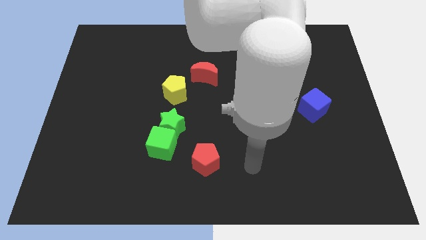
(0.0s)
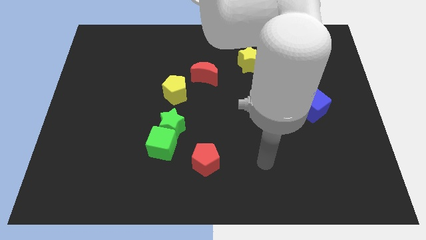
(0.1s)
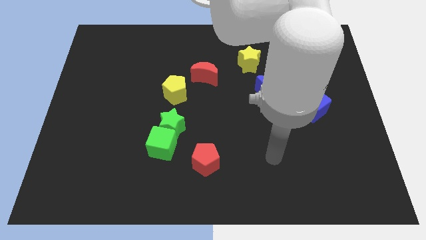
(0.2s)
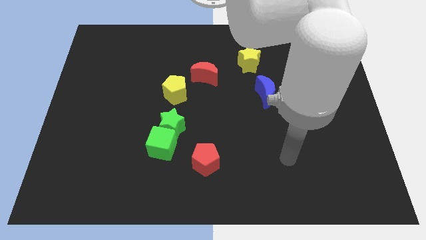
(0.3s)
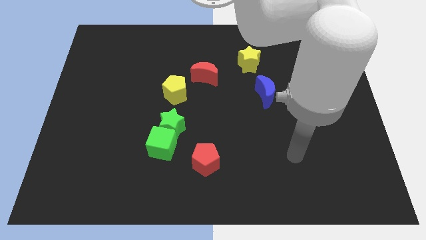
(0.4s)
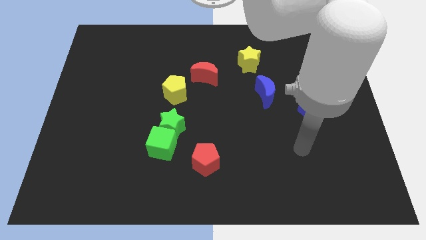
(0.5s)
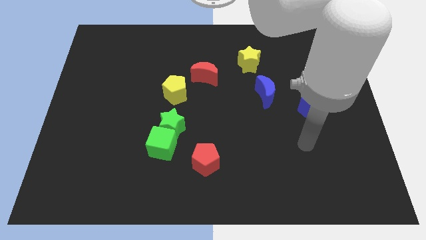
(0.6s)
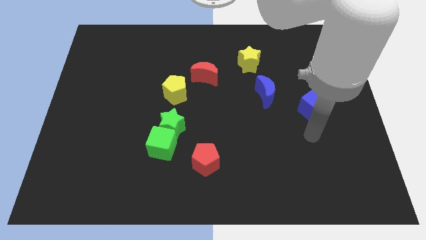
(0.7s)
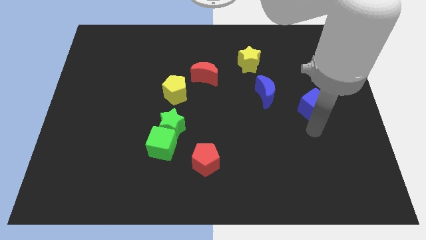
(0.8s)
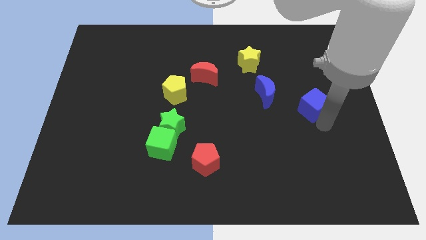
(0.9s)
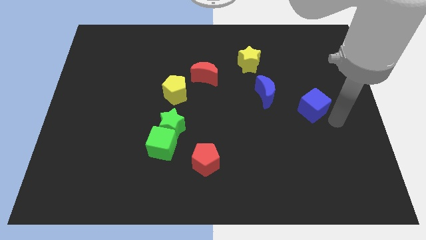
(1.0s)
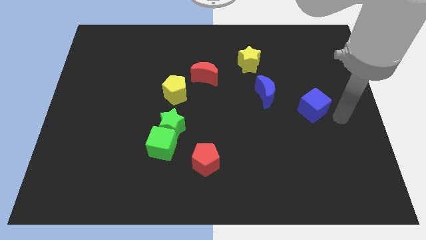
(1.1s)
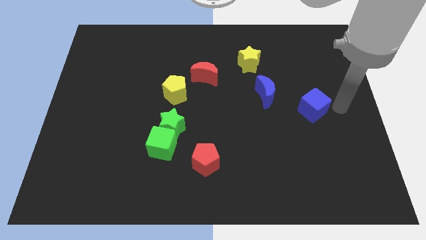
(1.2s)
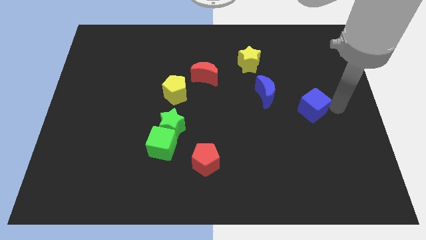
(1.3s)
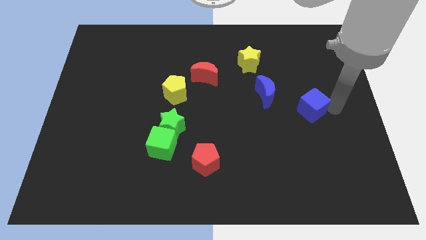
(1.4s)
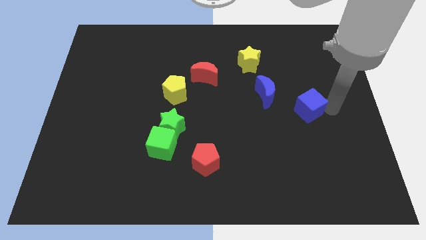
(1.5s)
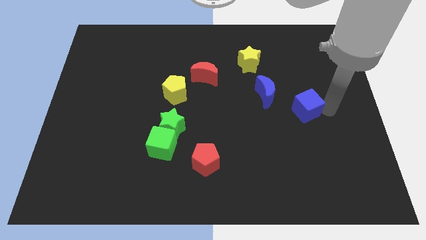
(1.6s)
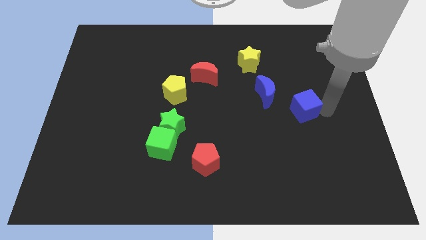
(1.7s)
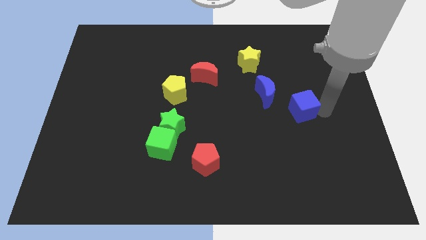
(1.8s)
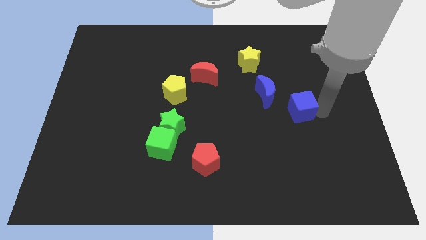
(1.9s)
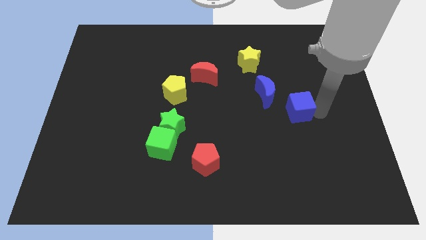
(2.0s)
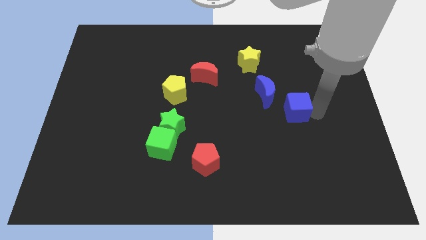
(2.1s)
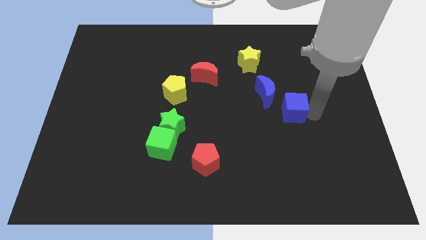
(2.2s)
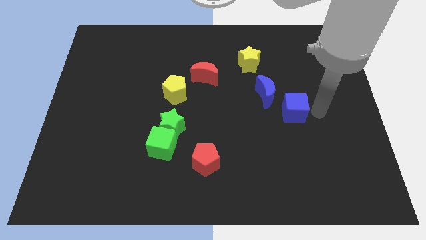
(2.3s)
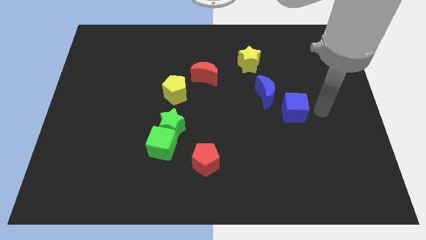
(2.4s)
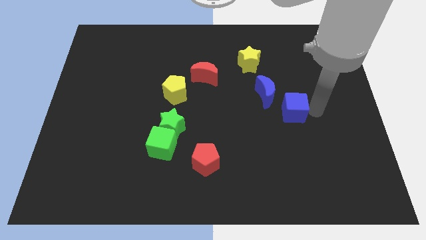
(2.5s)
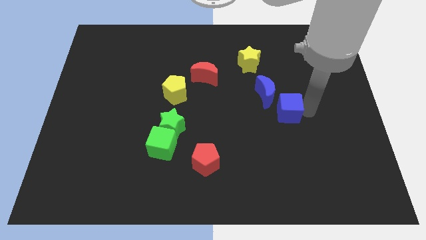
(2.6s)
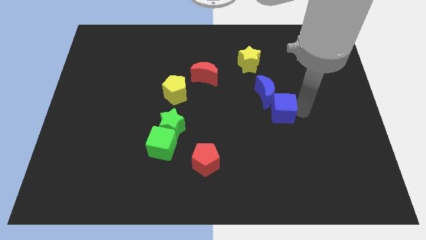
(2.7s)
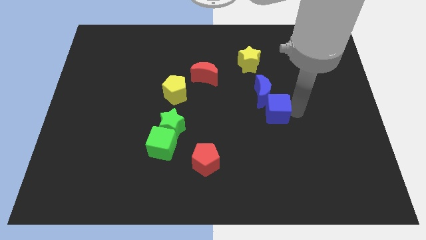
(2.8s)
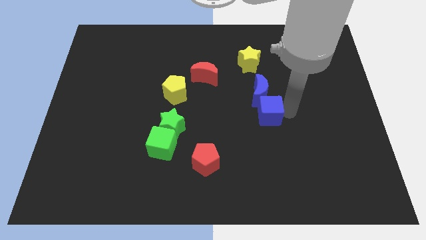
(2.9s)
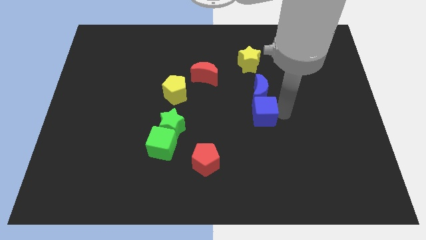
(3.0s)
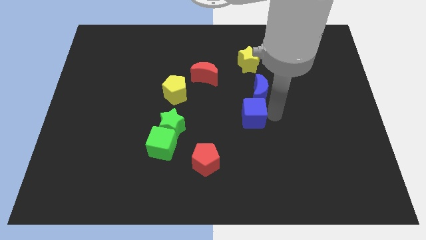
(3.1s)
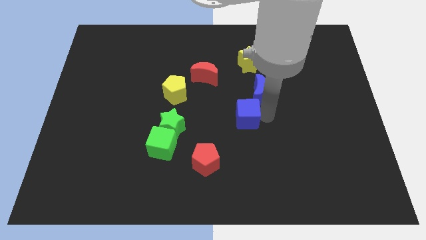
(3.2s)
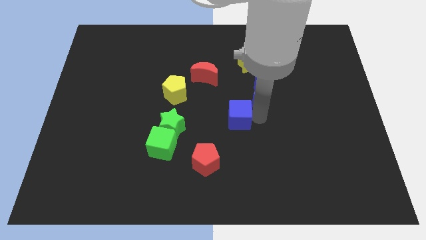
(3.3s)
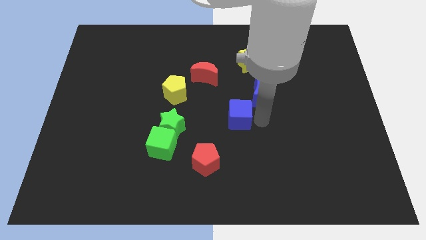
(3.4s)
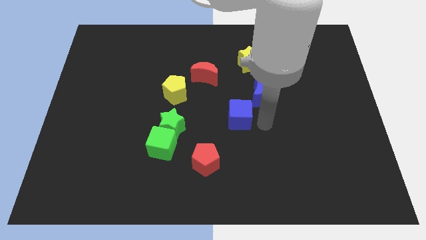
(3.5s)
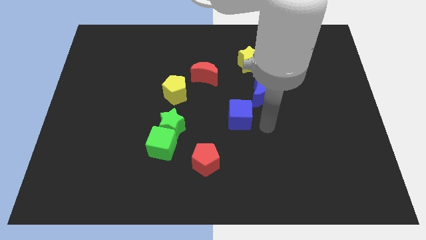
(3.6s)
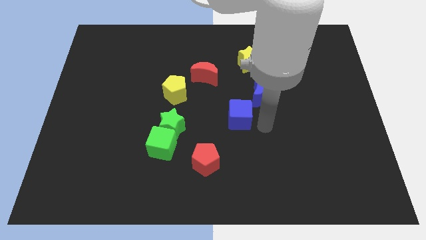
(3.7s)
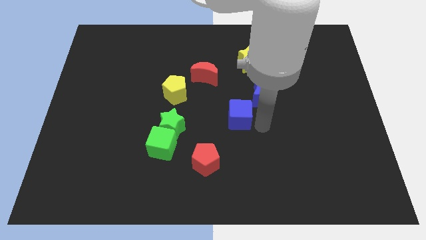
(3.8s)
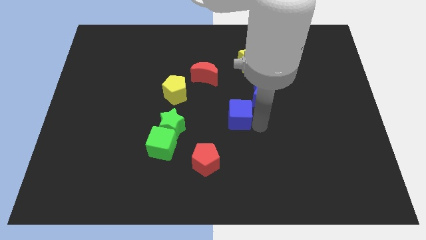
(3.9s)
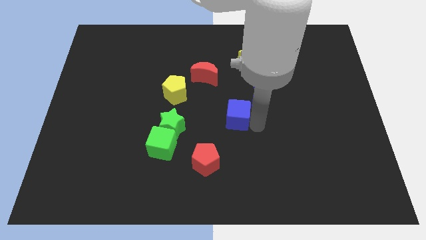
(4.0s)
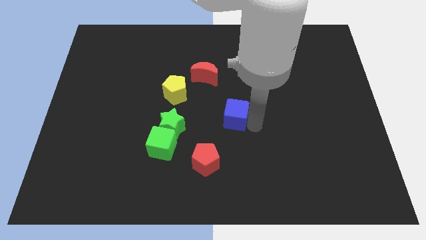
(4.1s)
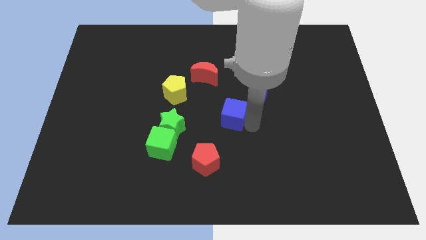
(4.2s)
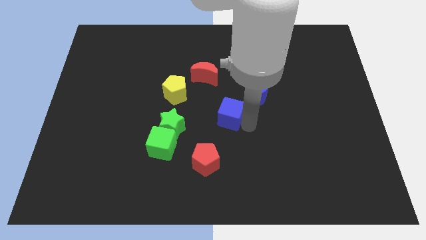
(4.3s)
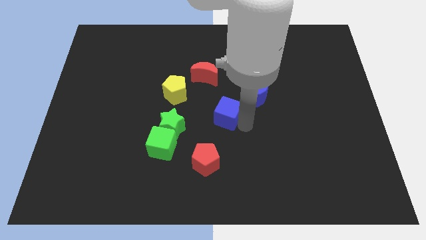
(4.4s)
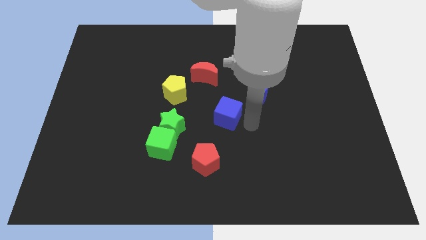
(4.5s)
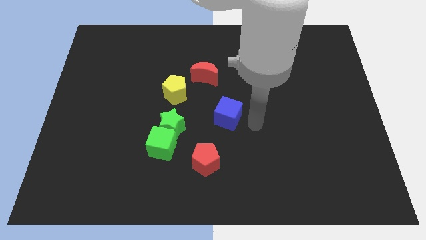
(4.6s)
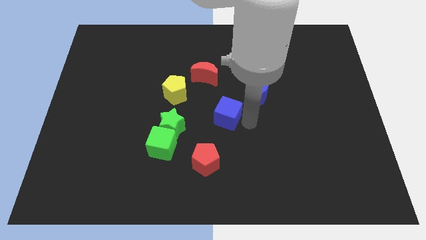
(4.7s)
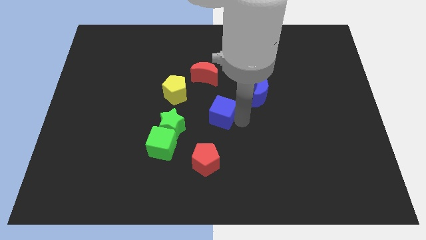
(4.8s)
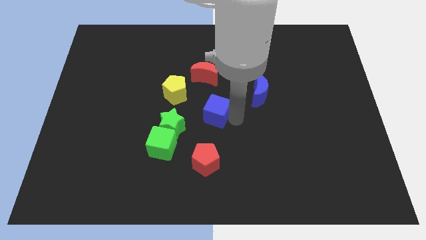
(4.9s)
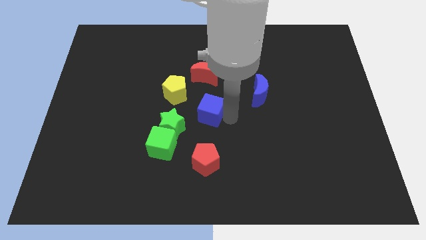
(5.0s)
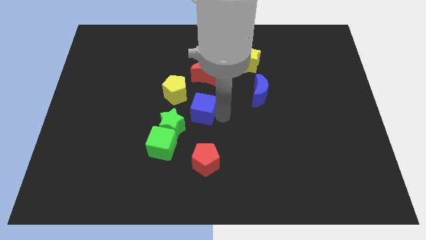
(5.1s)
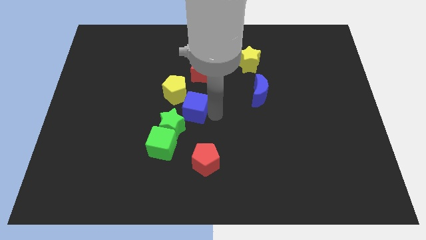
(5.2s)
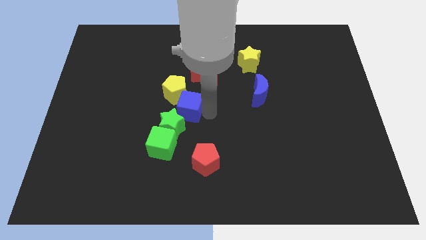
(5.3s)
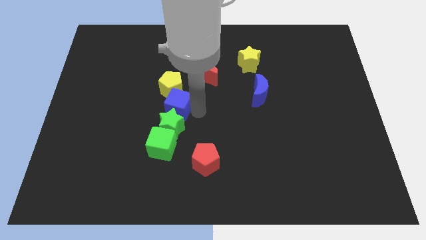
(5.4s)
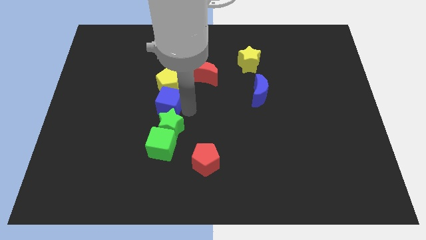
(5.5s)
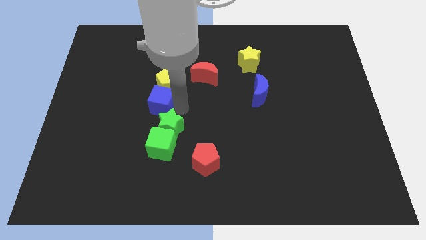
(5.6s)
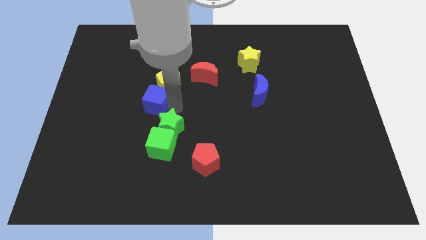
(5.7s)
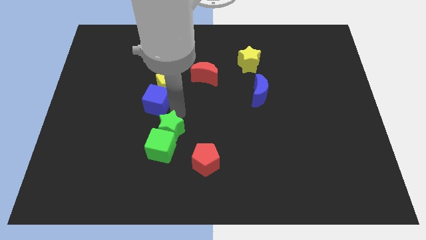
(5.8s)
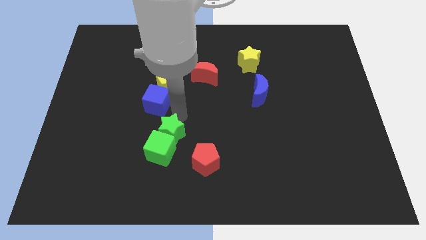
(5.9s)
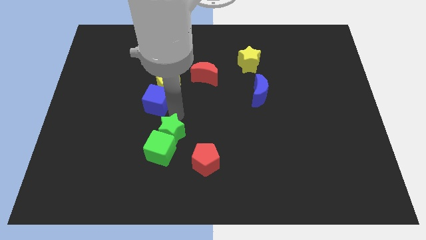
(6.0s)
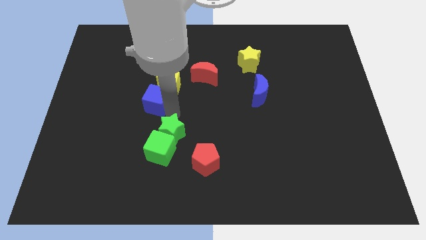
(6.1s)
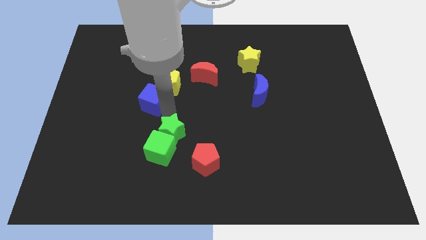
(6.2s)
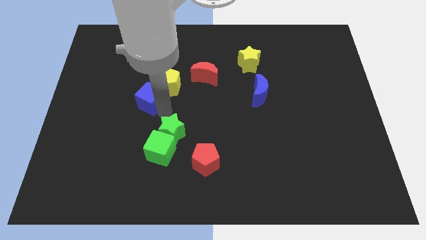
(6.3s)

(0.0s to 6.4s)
slide the blue cube to the left side of the yellow pentagon

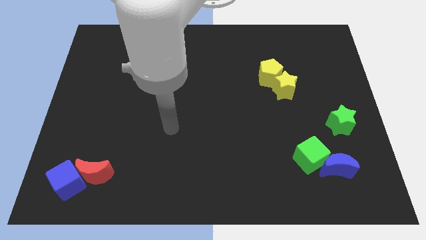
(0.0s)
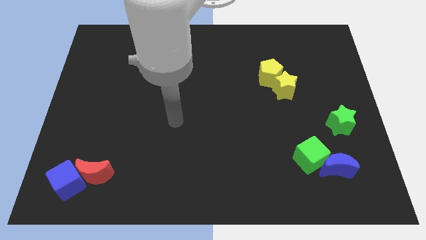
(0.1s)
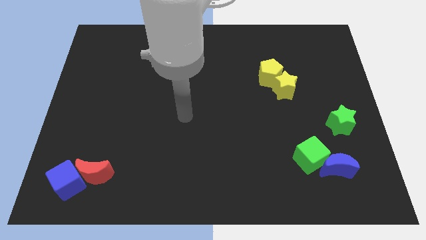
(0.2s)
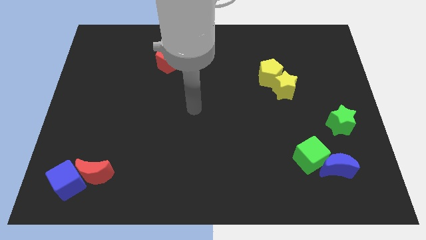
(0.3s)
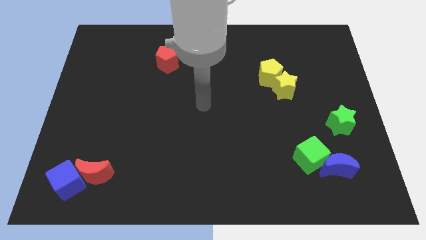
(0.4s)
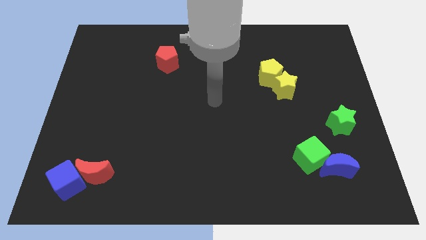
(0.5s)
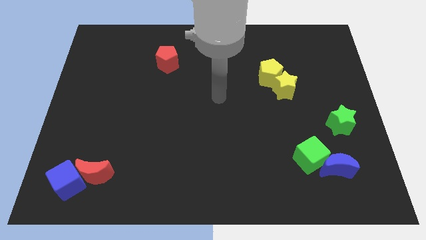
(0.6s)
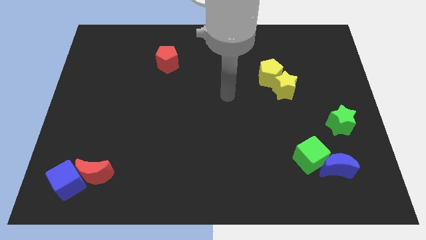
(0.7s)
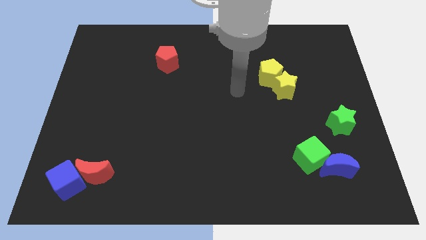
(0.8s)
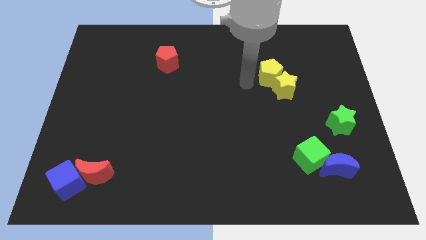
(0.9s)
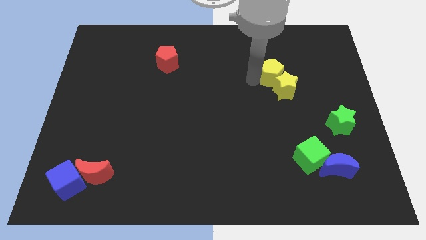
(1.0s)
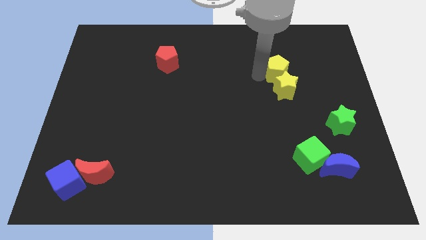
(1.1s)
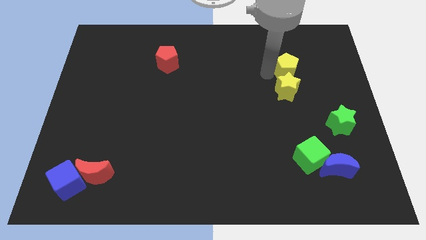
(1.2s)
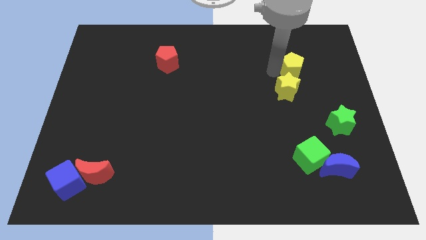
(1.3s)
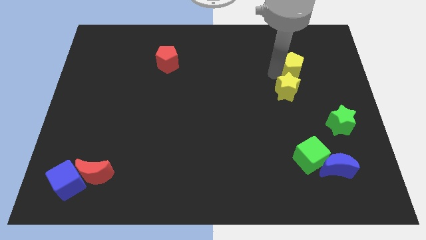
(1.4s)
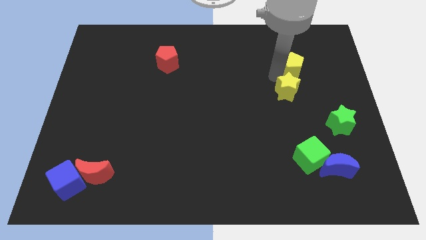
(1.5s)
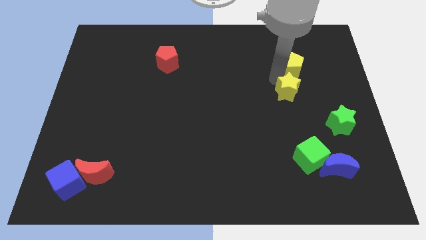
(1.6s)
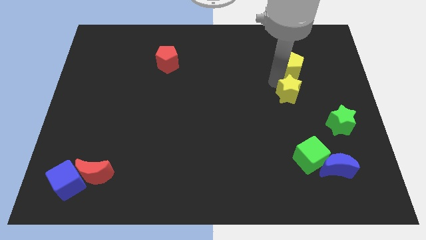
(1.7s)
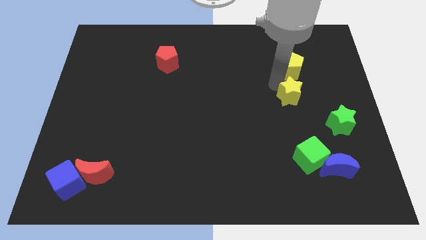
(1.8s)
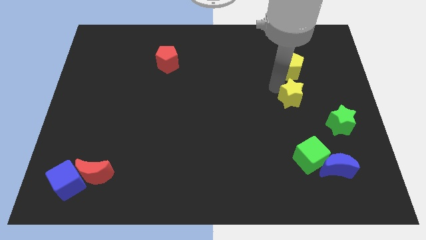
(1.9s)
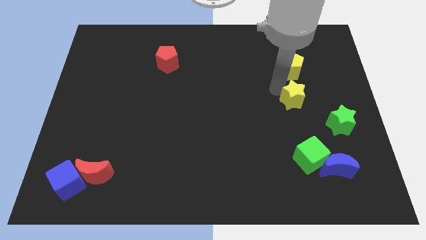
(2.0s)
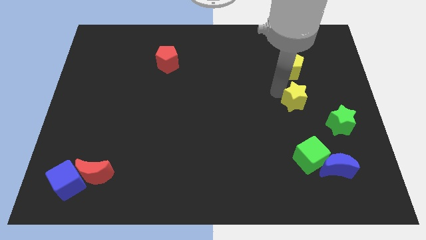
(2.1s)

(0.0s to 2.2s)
move the yellow star above the green cube
